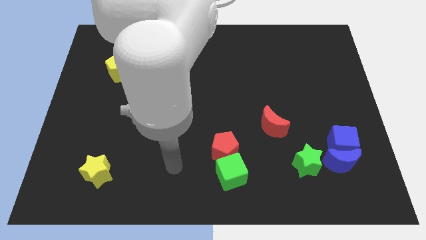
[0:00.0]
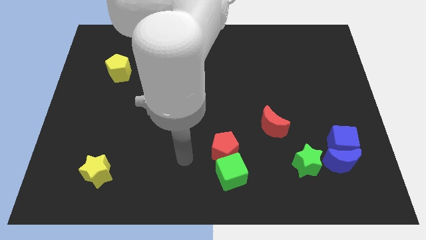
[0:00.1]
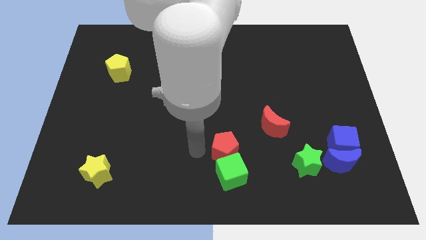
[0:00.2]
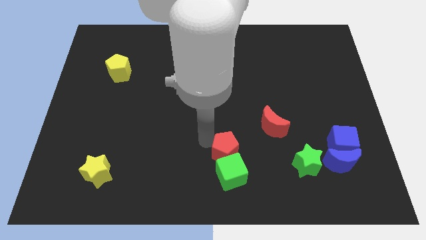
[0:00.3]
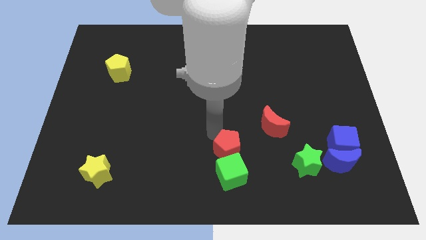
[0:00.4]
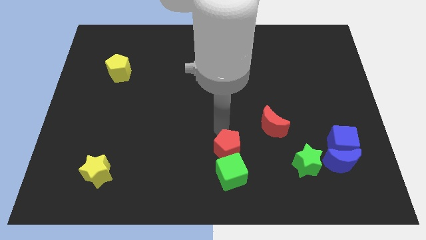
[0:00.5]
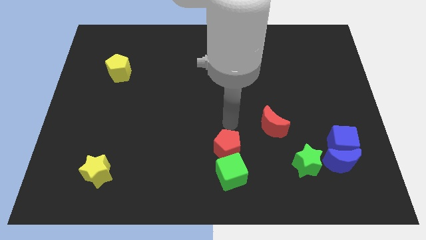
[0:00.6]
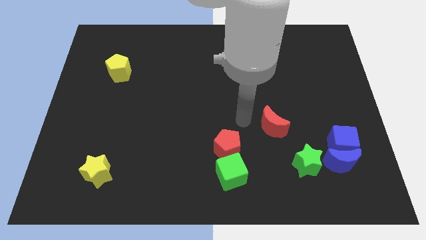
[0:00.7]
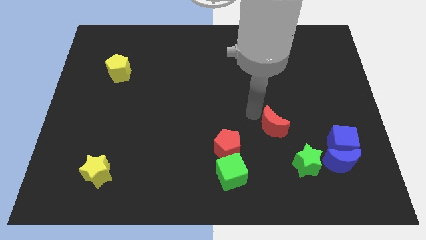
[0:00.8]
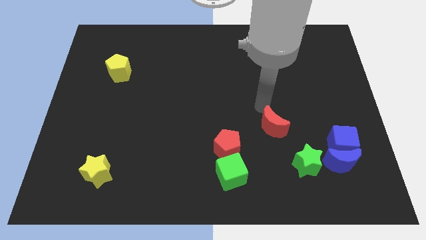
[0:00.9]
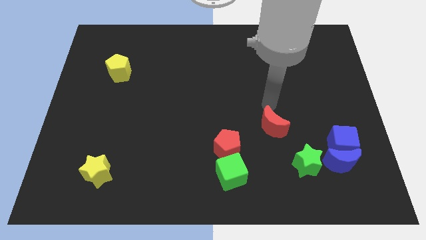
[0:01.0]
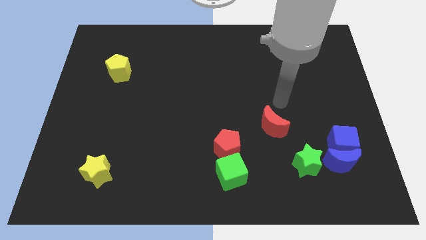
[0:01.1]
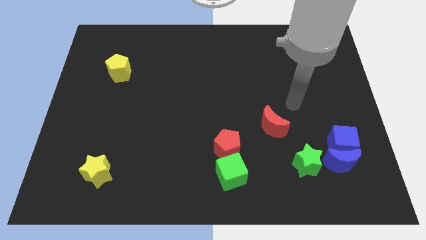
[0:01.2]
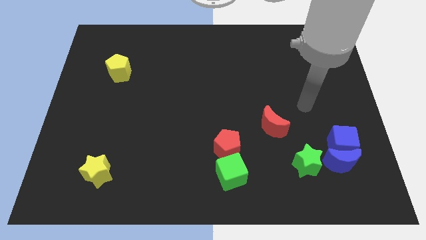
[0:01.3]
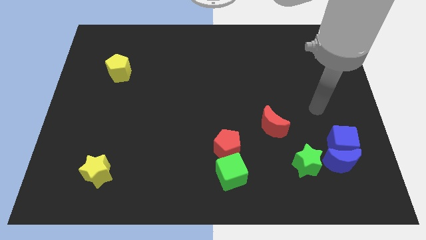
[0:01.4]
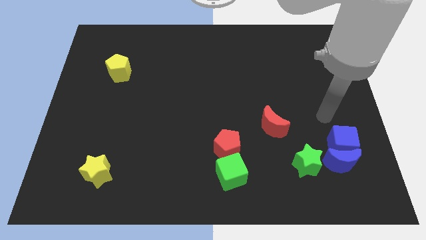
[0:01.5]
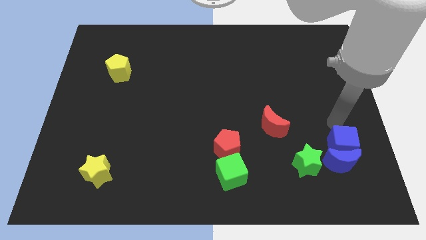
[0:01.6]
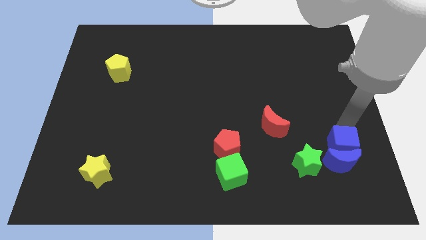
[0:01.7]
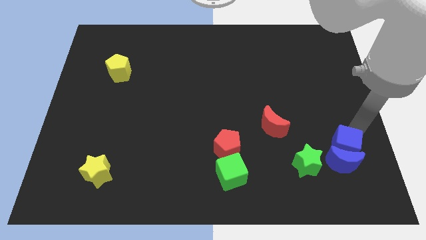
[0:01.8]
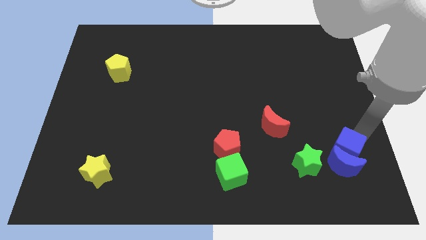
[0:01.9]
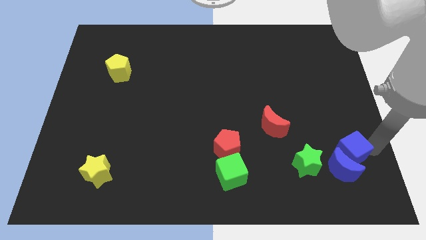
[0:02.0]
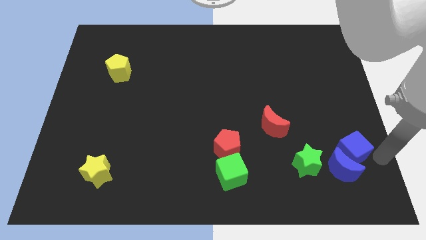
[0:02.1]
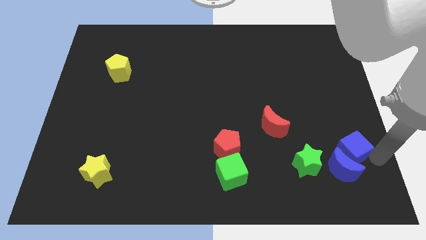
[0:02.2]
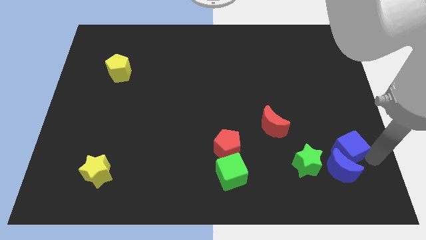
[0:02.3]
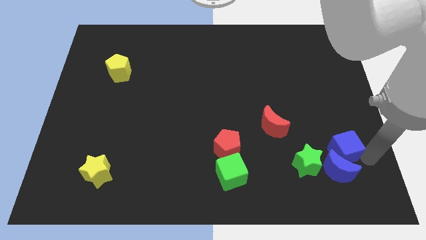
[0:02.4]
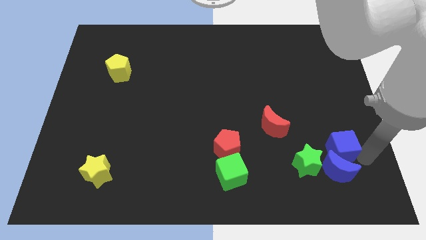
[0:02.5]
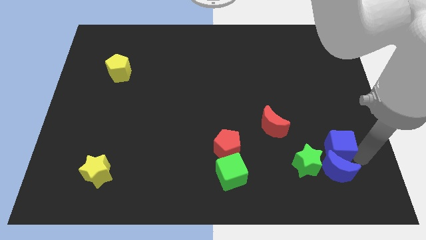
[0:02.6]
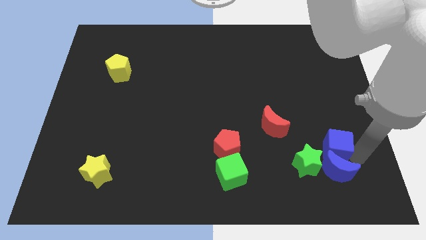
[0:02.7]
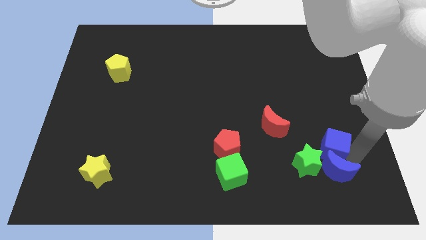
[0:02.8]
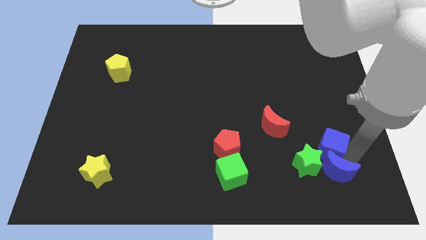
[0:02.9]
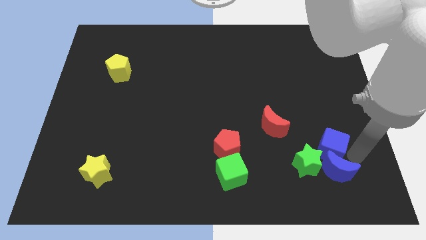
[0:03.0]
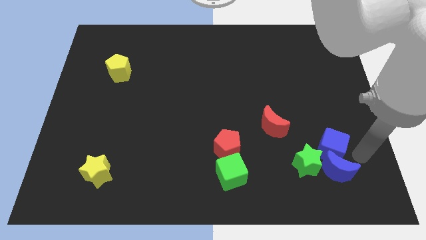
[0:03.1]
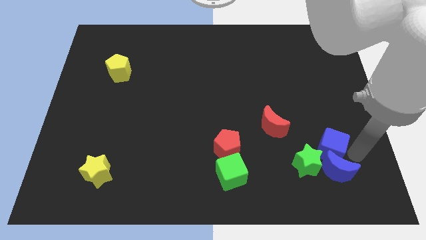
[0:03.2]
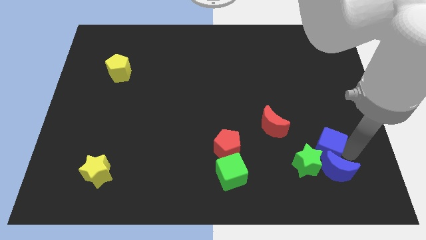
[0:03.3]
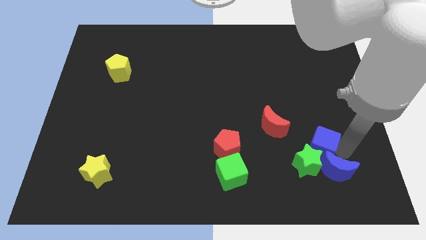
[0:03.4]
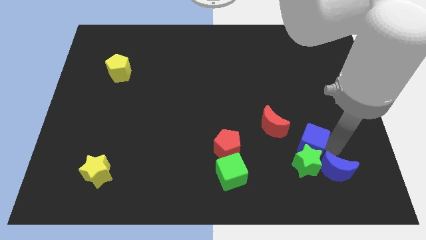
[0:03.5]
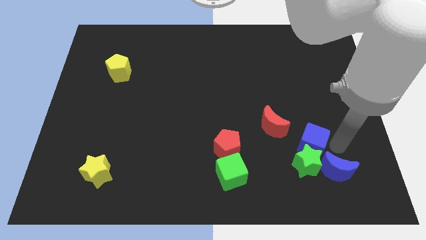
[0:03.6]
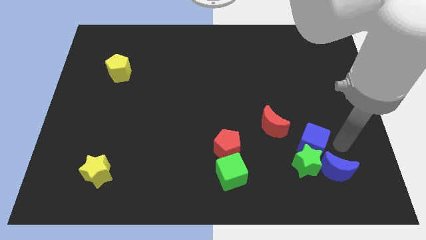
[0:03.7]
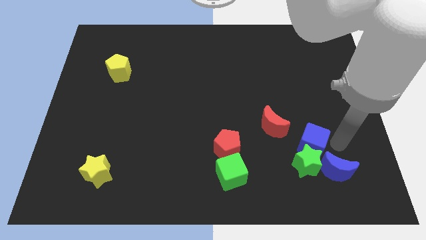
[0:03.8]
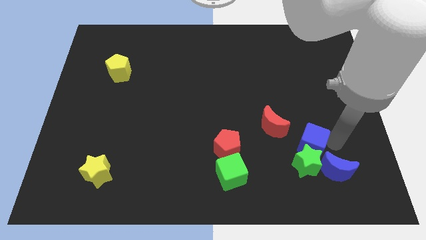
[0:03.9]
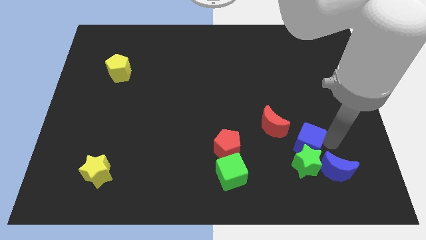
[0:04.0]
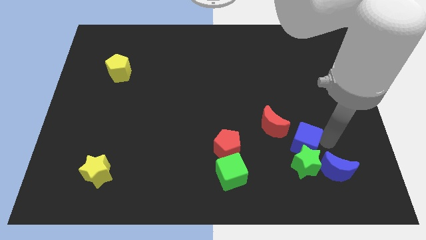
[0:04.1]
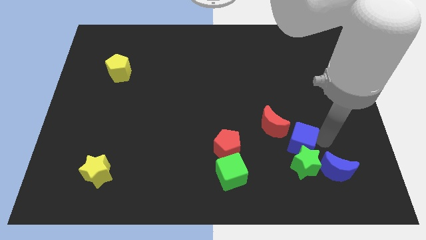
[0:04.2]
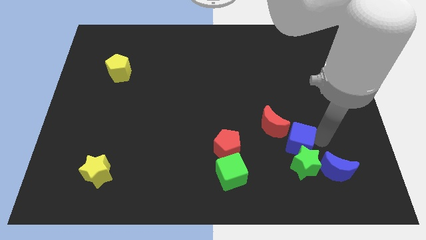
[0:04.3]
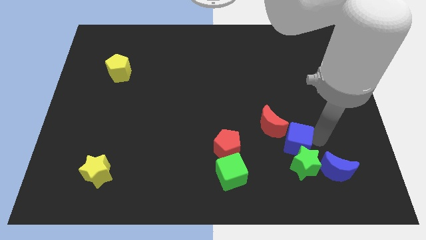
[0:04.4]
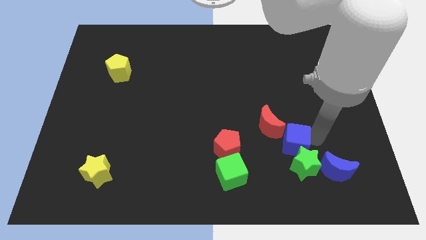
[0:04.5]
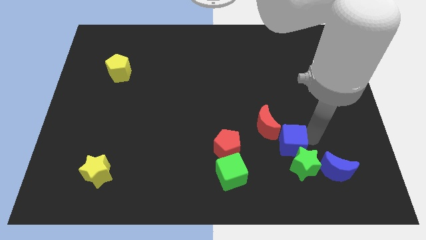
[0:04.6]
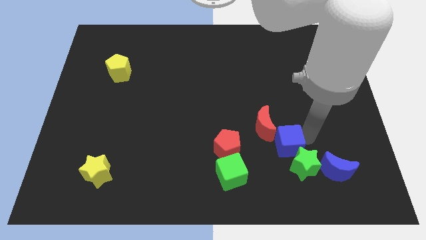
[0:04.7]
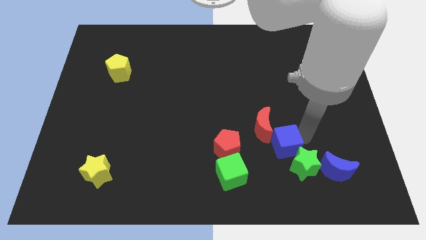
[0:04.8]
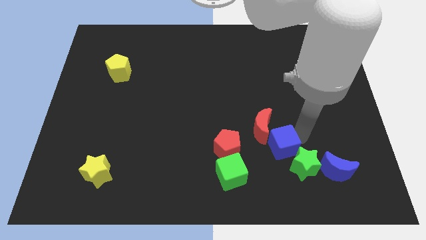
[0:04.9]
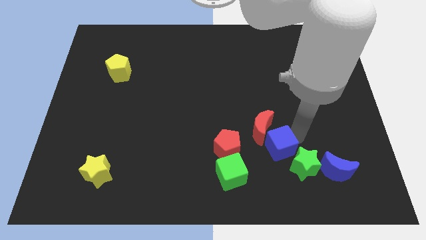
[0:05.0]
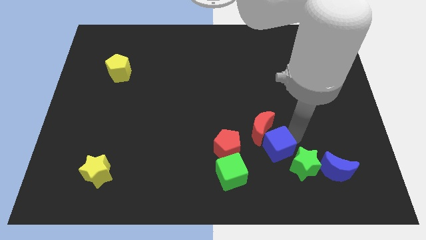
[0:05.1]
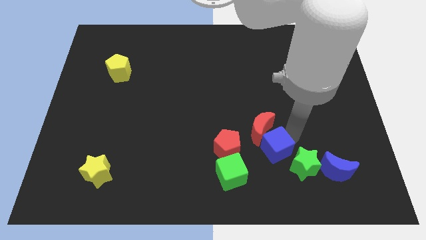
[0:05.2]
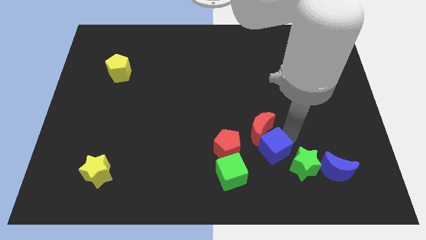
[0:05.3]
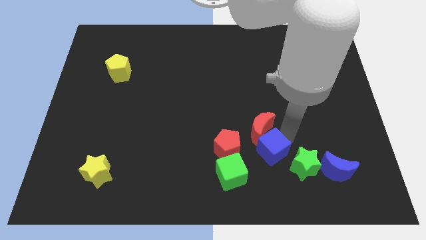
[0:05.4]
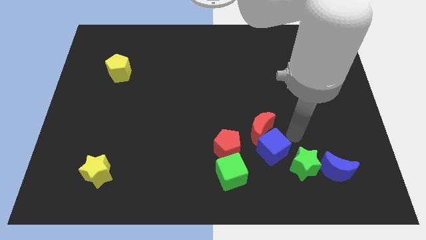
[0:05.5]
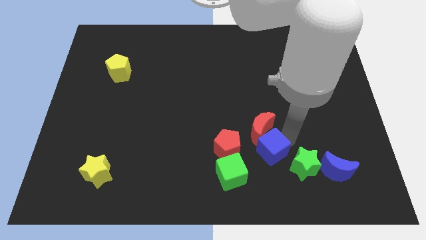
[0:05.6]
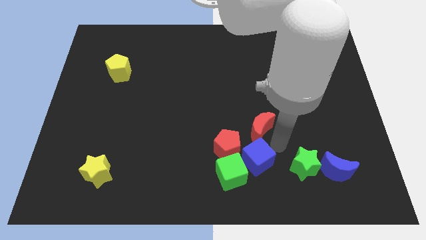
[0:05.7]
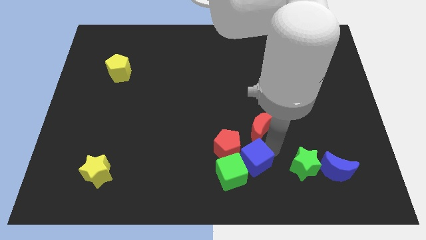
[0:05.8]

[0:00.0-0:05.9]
move the blue cube to the green cube

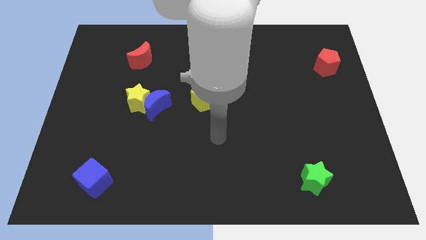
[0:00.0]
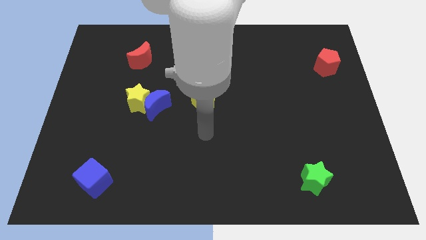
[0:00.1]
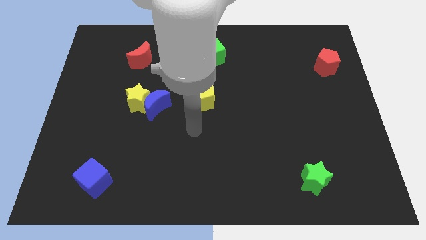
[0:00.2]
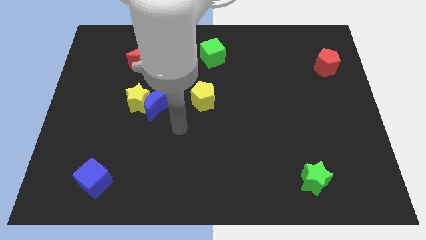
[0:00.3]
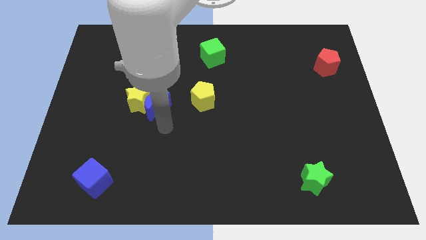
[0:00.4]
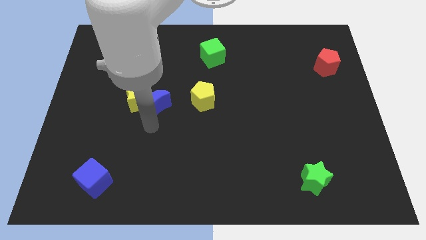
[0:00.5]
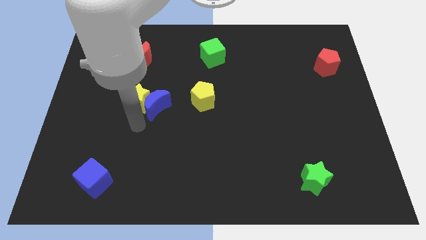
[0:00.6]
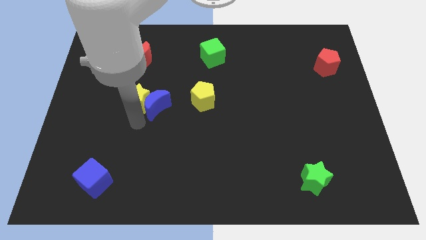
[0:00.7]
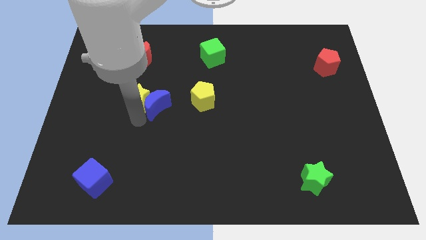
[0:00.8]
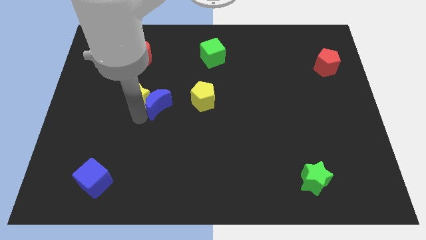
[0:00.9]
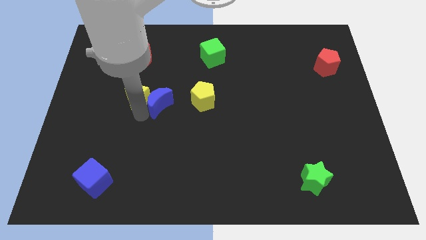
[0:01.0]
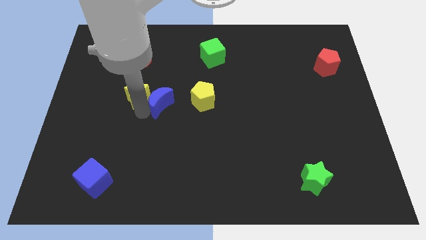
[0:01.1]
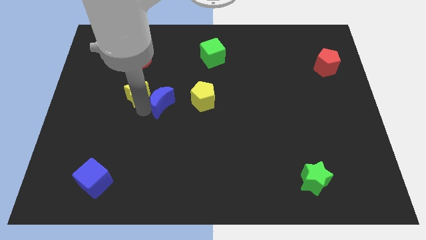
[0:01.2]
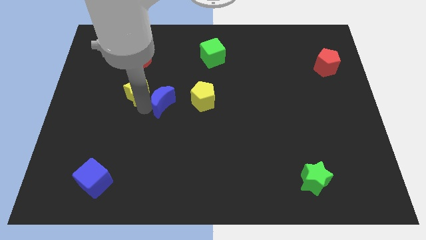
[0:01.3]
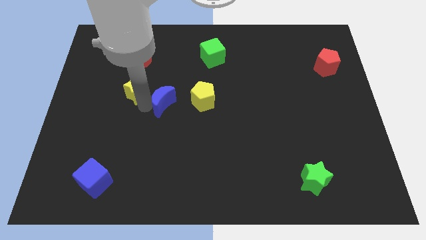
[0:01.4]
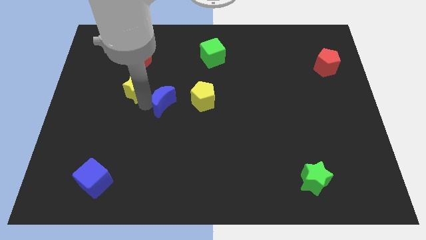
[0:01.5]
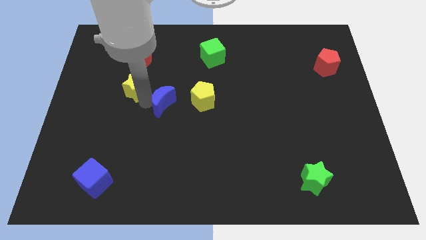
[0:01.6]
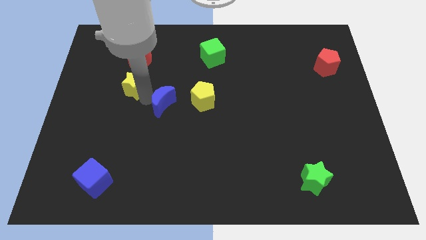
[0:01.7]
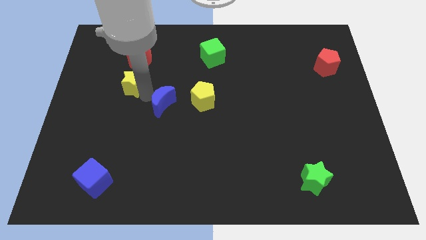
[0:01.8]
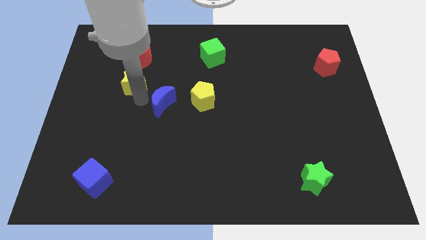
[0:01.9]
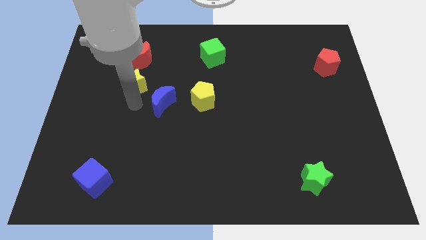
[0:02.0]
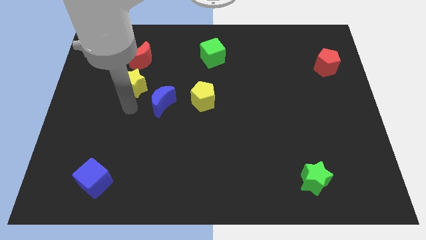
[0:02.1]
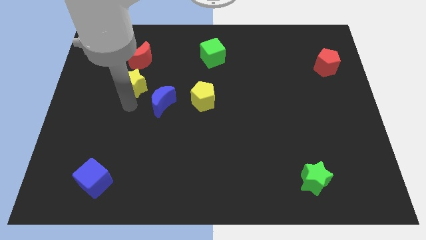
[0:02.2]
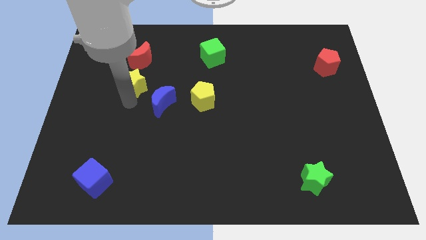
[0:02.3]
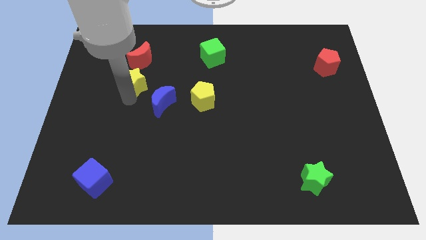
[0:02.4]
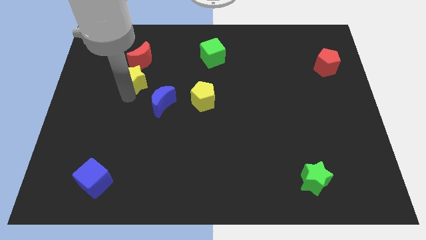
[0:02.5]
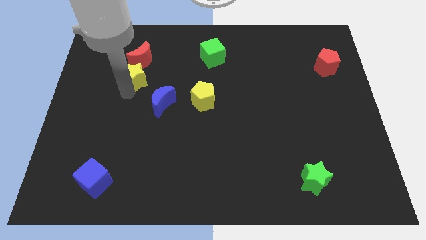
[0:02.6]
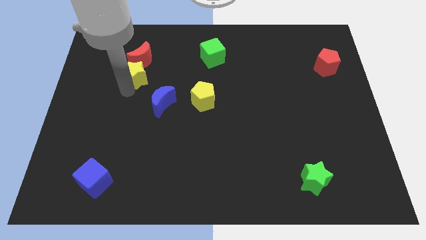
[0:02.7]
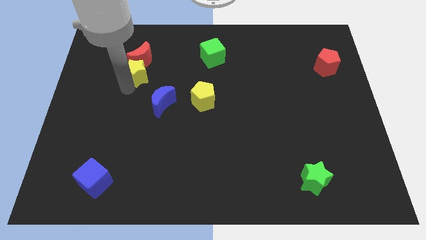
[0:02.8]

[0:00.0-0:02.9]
push the yellow star to the red moon
